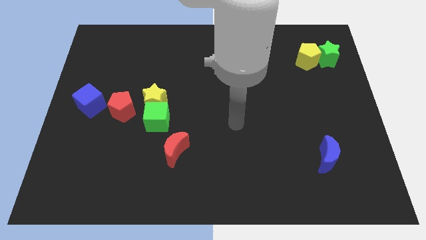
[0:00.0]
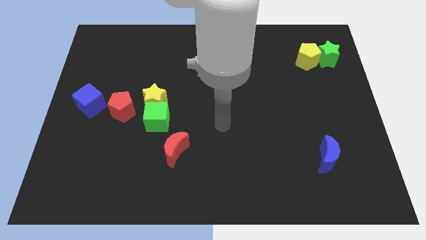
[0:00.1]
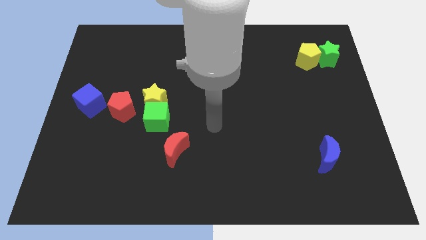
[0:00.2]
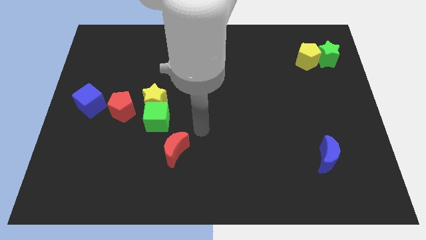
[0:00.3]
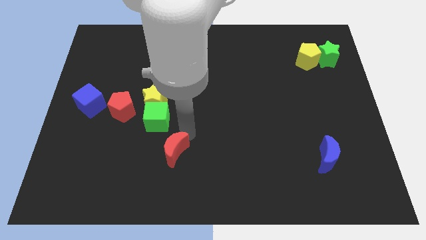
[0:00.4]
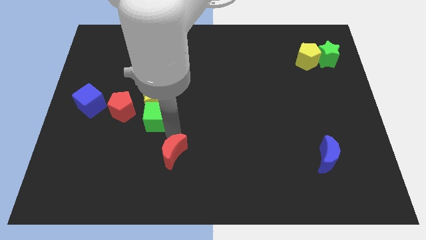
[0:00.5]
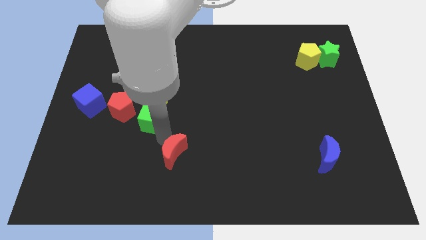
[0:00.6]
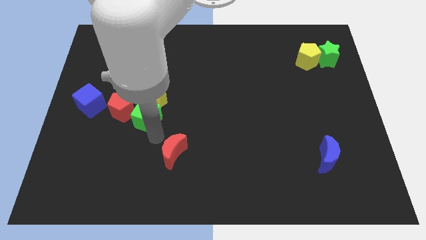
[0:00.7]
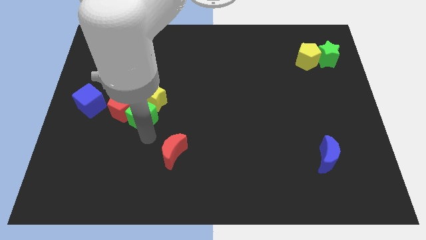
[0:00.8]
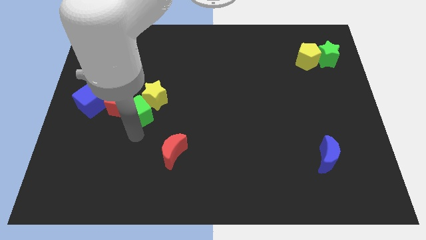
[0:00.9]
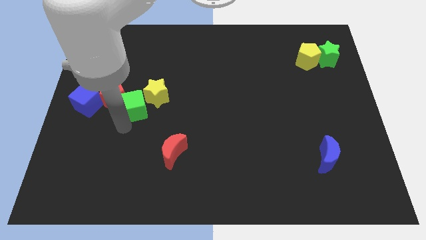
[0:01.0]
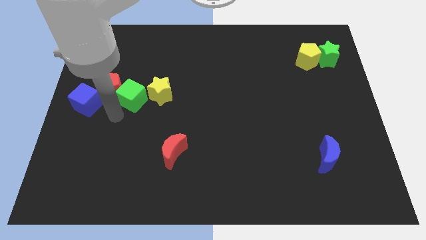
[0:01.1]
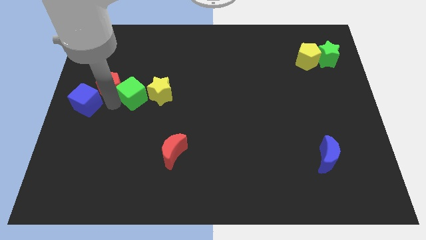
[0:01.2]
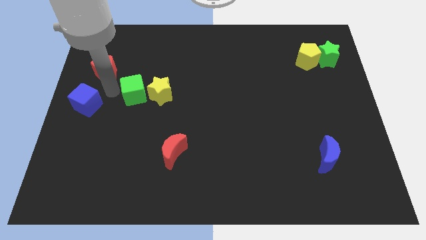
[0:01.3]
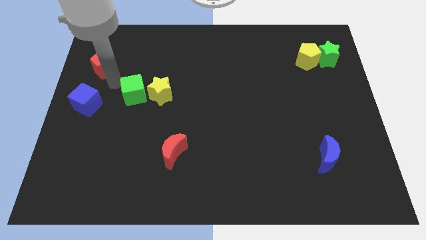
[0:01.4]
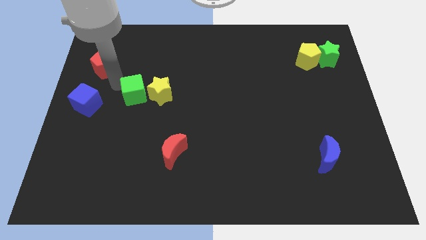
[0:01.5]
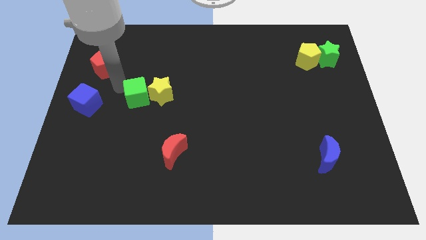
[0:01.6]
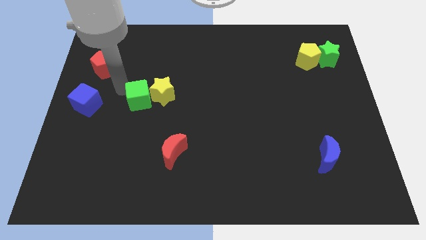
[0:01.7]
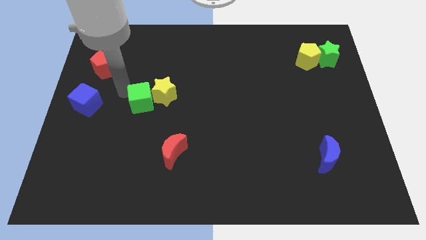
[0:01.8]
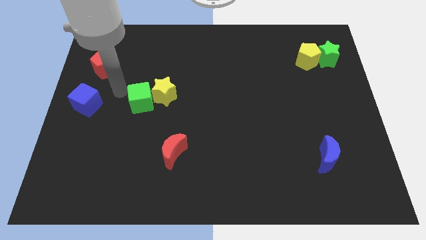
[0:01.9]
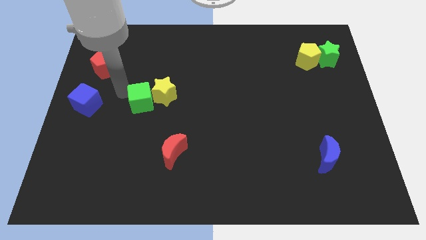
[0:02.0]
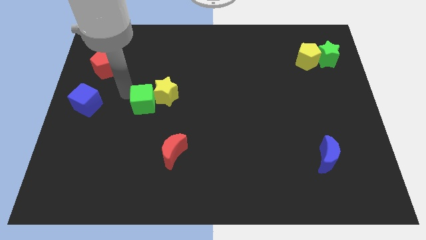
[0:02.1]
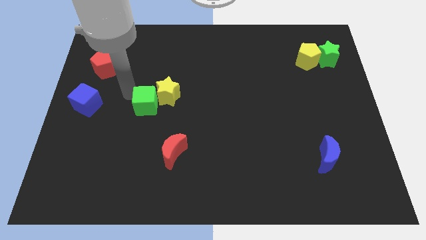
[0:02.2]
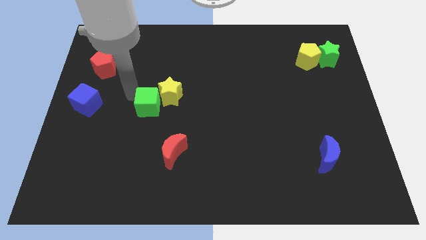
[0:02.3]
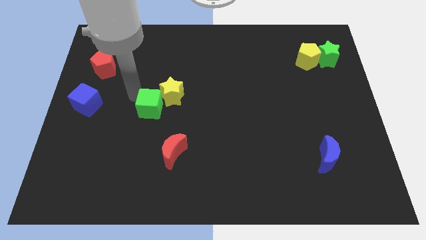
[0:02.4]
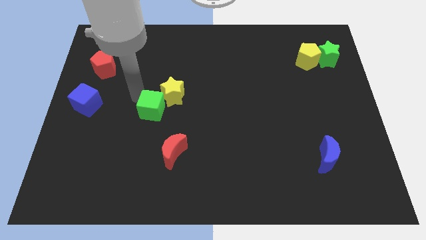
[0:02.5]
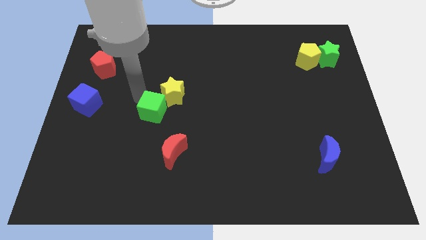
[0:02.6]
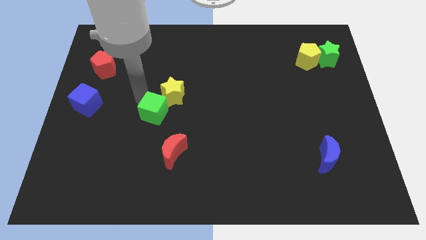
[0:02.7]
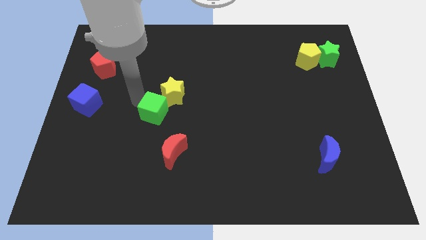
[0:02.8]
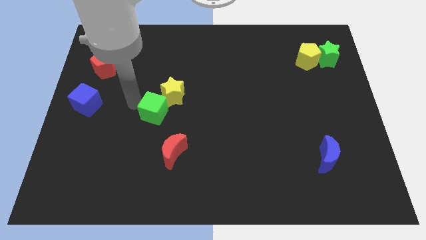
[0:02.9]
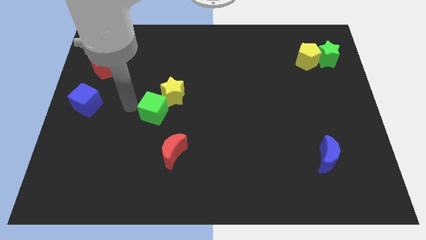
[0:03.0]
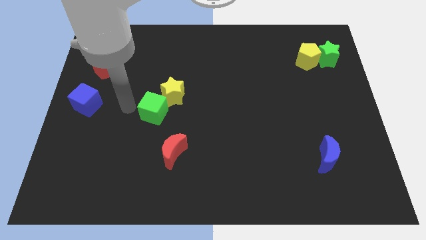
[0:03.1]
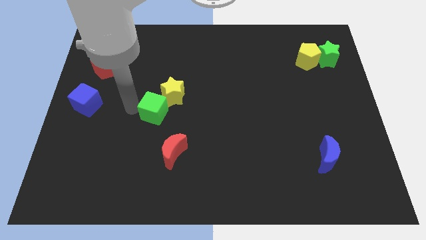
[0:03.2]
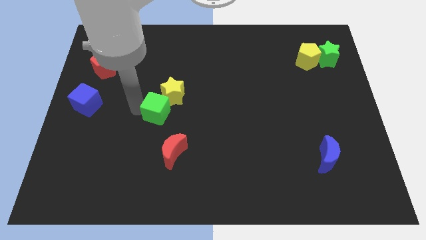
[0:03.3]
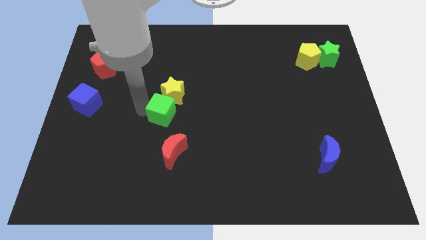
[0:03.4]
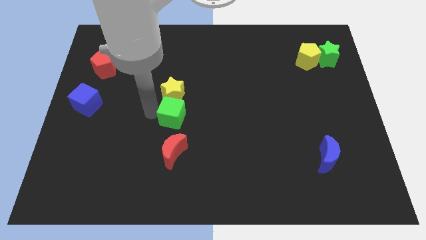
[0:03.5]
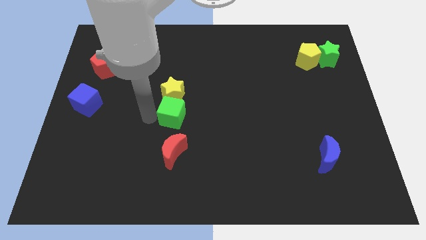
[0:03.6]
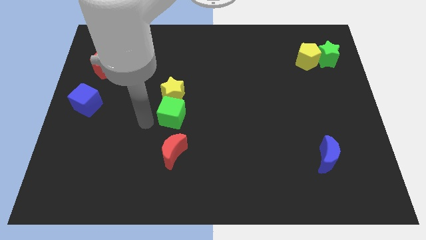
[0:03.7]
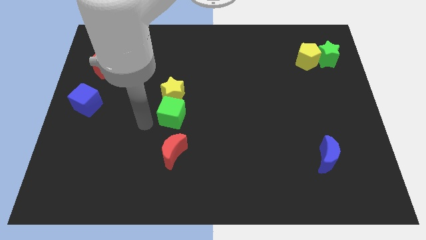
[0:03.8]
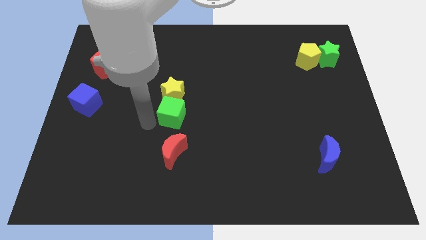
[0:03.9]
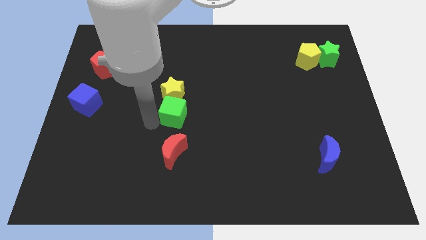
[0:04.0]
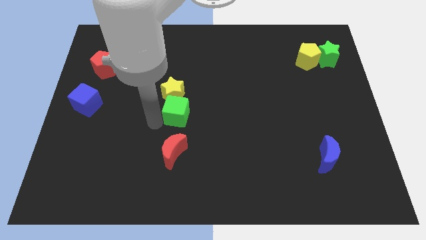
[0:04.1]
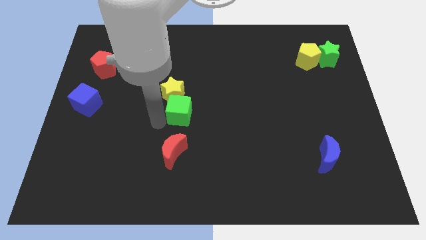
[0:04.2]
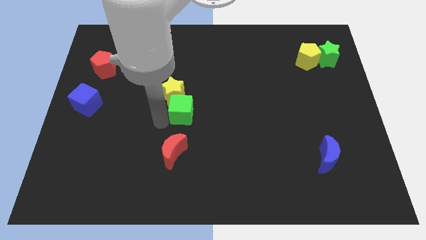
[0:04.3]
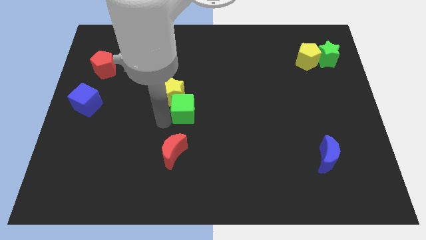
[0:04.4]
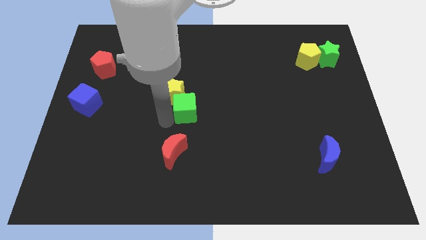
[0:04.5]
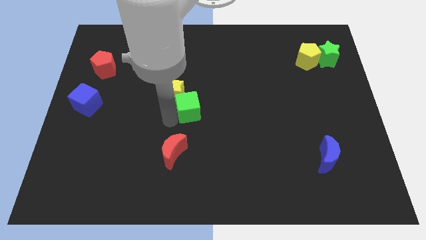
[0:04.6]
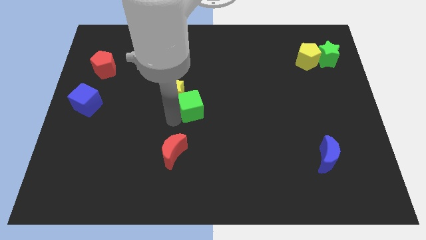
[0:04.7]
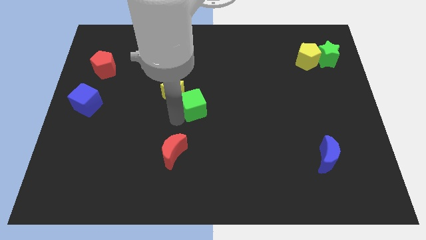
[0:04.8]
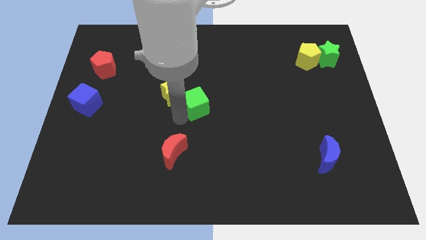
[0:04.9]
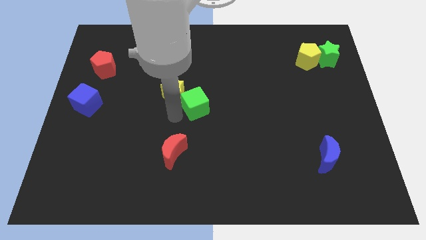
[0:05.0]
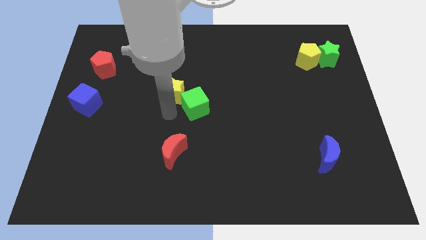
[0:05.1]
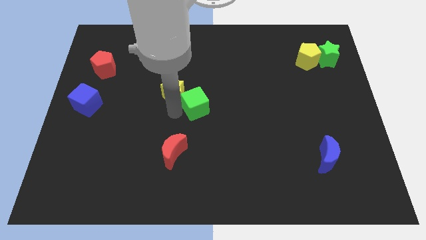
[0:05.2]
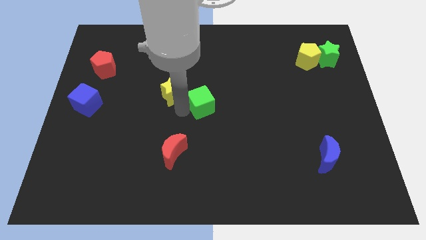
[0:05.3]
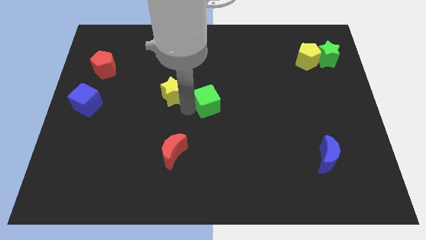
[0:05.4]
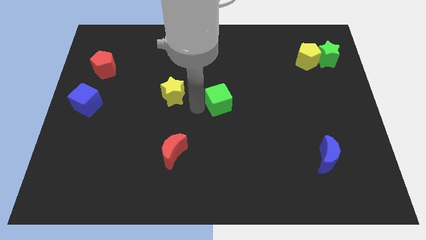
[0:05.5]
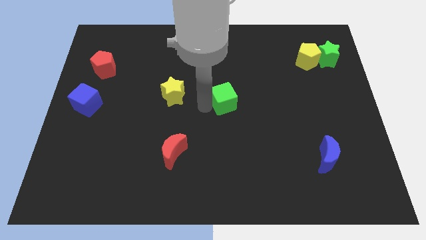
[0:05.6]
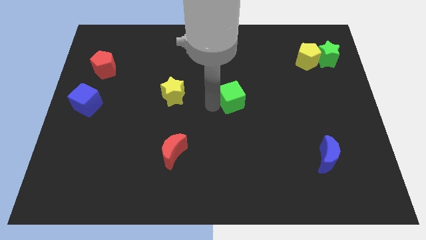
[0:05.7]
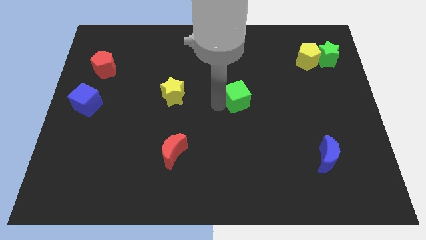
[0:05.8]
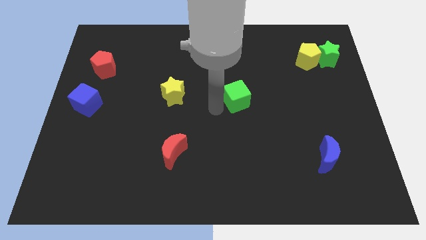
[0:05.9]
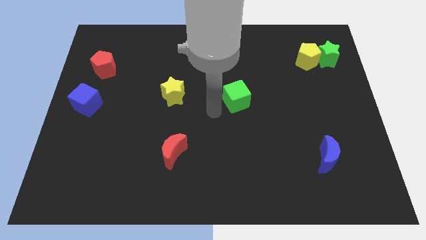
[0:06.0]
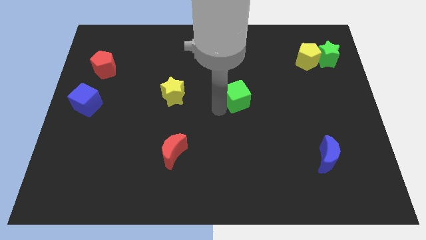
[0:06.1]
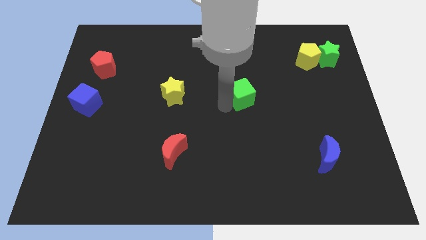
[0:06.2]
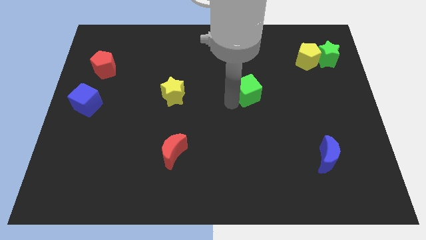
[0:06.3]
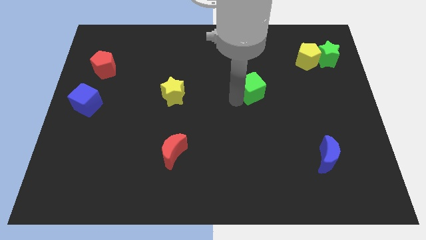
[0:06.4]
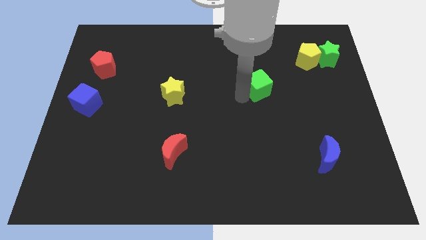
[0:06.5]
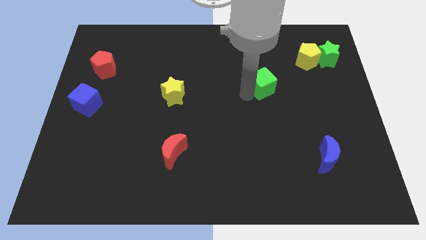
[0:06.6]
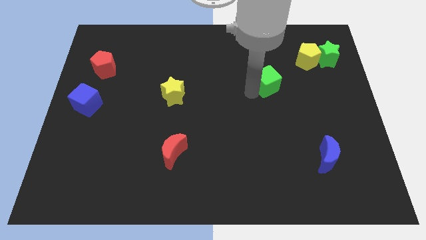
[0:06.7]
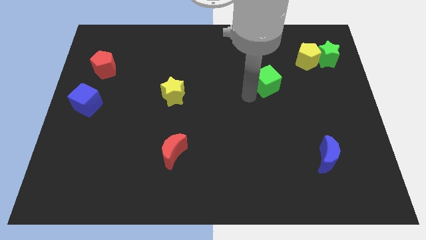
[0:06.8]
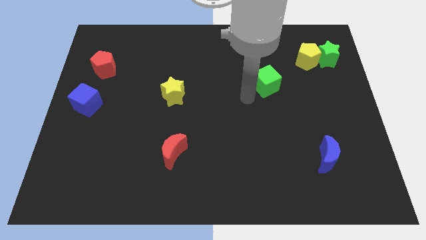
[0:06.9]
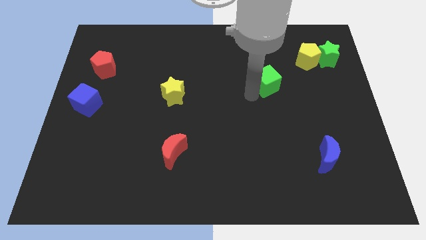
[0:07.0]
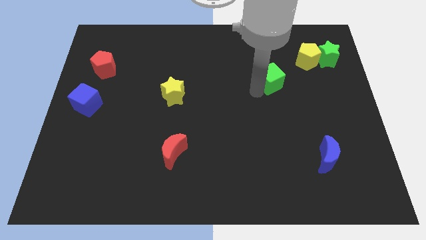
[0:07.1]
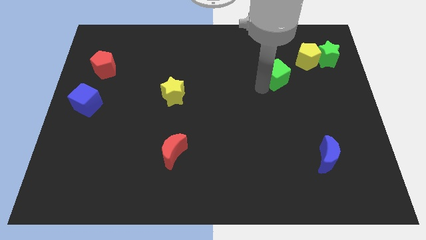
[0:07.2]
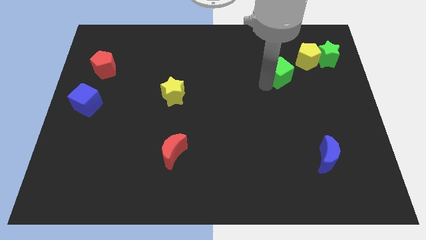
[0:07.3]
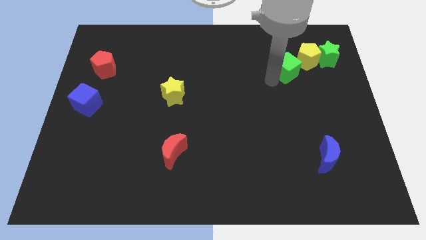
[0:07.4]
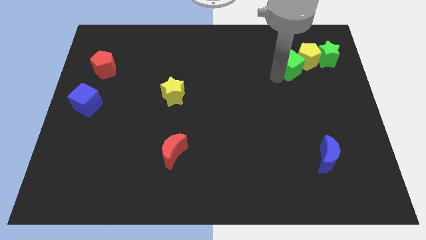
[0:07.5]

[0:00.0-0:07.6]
slide the green cube to the yellow pentagon
